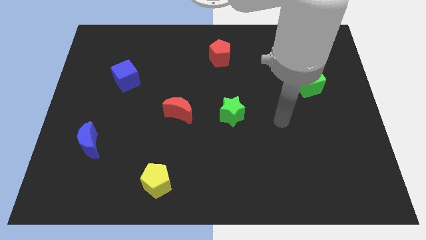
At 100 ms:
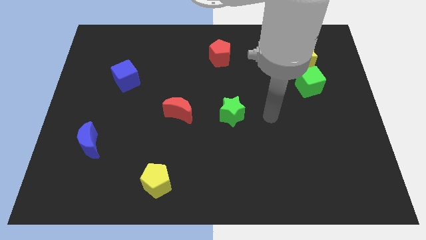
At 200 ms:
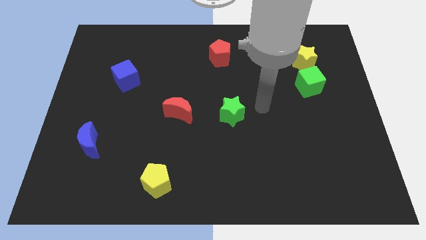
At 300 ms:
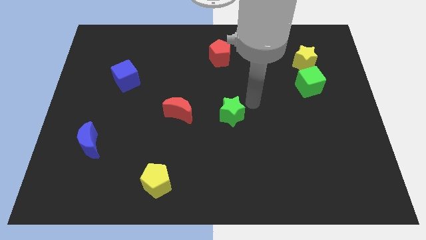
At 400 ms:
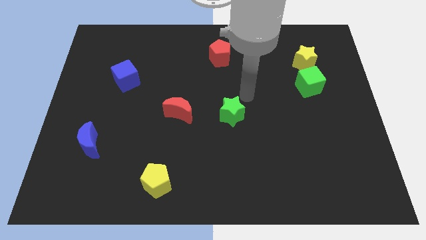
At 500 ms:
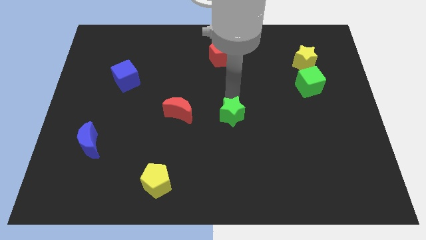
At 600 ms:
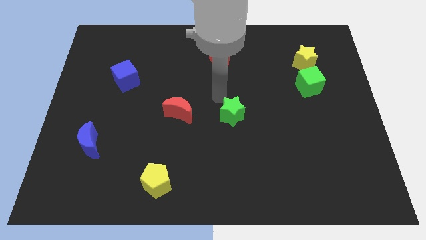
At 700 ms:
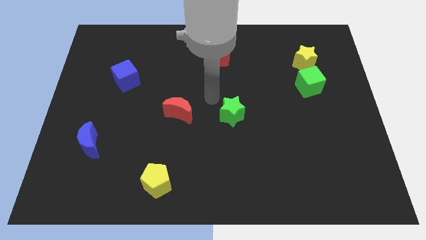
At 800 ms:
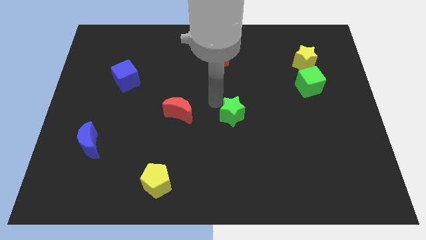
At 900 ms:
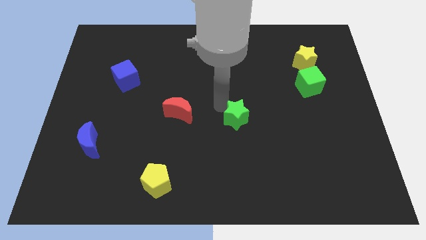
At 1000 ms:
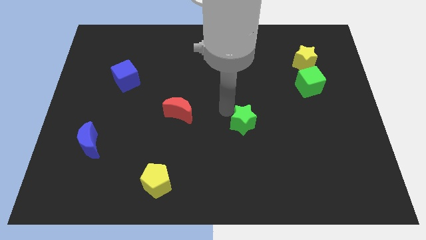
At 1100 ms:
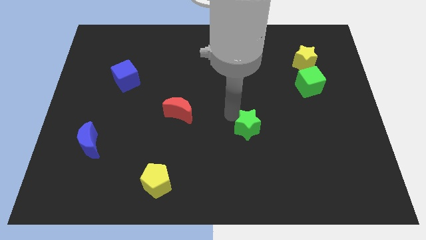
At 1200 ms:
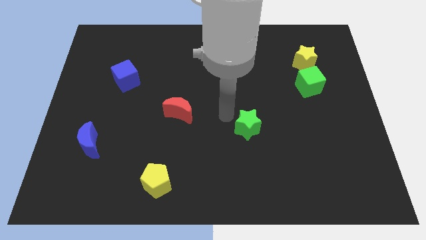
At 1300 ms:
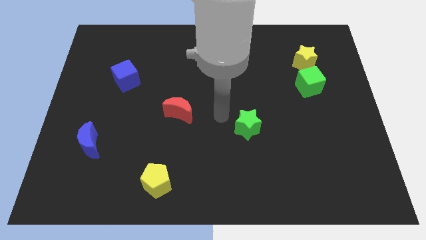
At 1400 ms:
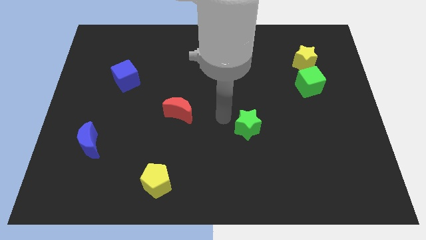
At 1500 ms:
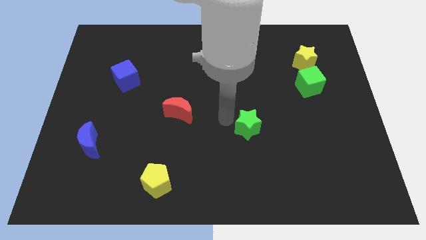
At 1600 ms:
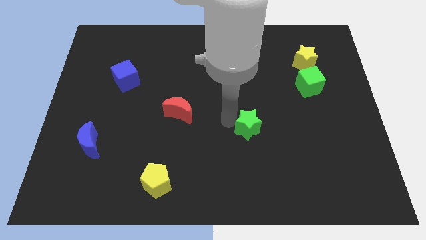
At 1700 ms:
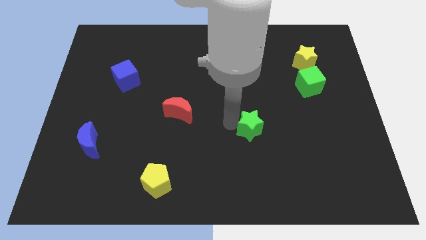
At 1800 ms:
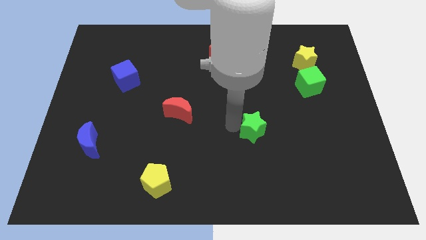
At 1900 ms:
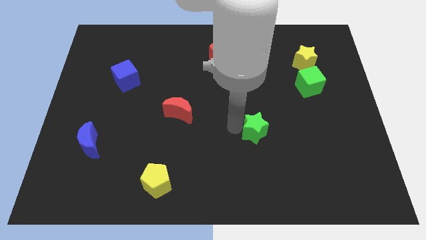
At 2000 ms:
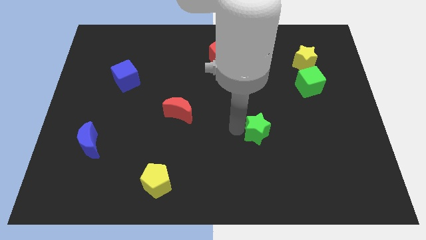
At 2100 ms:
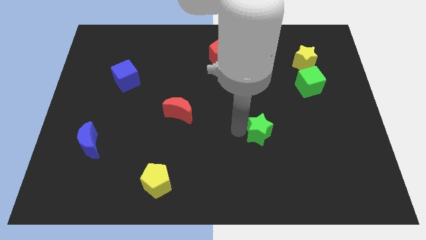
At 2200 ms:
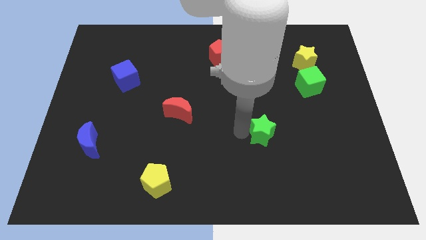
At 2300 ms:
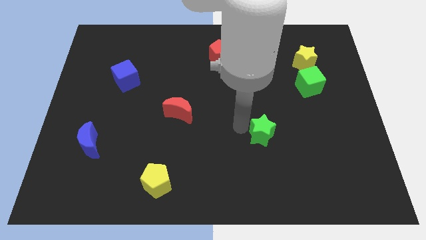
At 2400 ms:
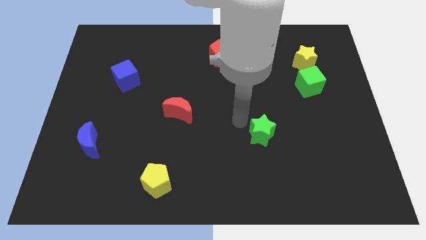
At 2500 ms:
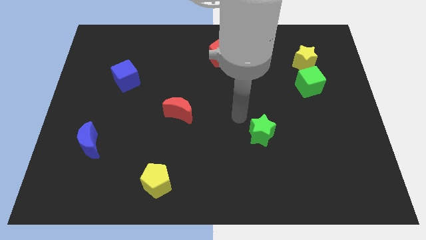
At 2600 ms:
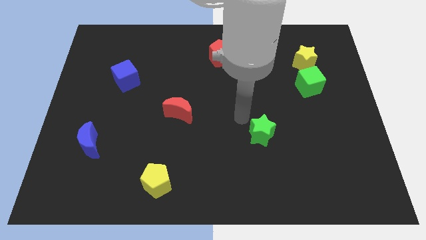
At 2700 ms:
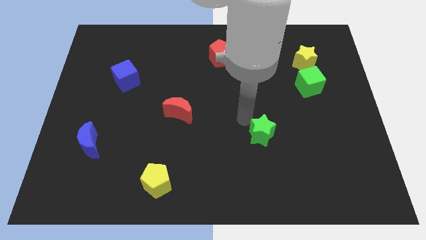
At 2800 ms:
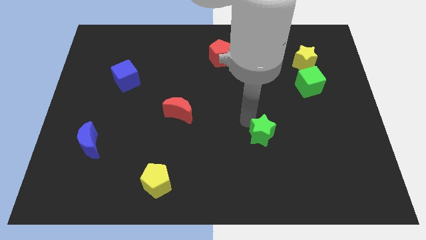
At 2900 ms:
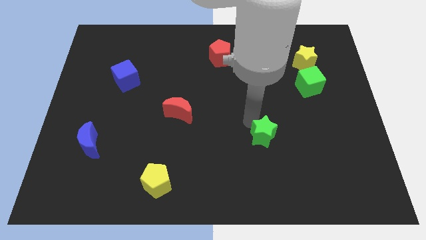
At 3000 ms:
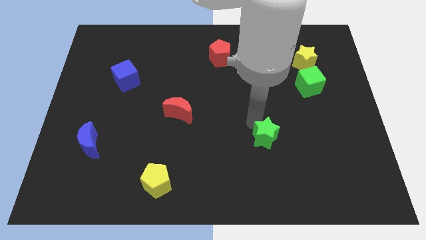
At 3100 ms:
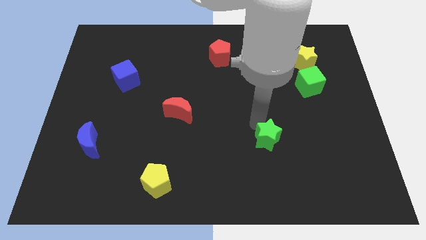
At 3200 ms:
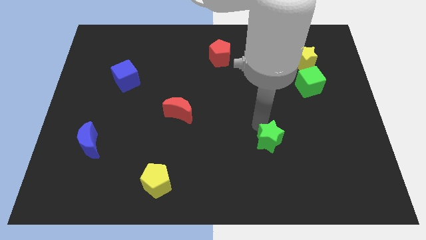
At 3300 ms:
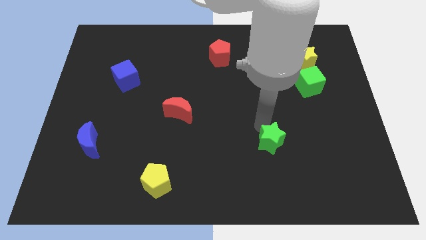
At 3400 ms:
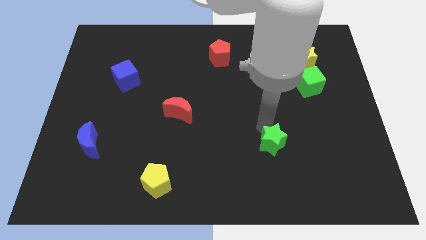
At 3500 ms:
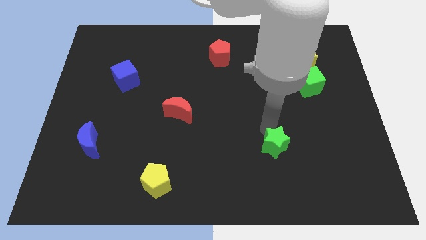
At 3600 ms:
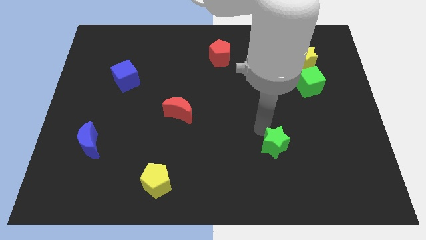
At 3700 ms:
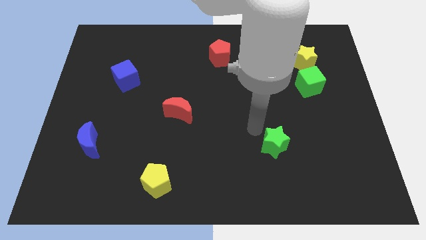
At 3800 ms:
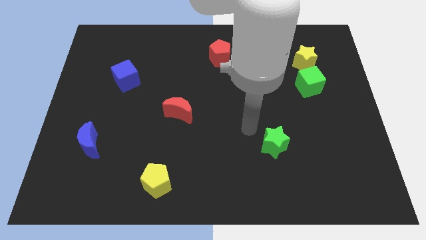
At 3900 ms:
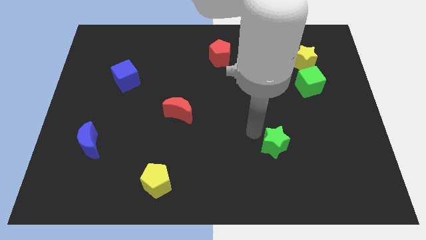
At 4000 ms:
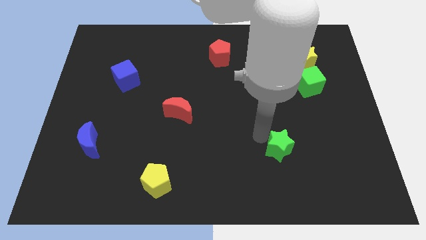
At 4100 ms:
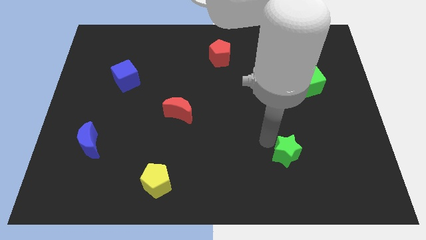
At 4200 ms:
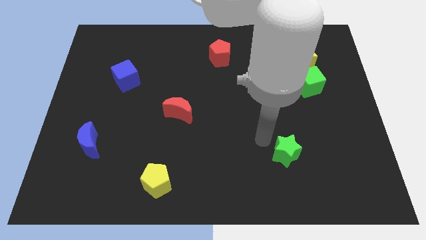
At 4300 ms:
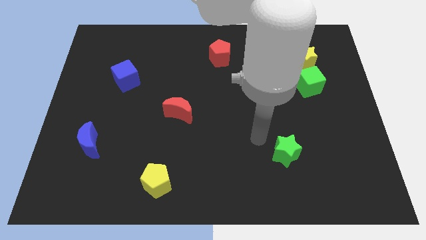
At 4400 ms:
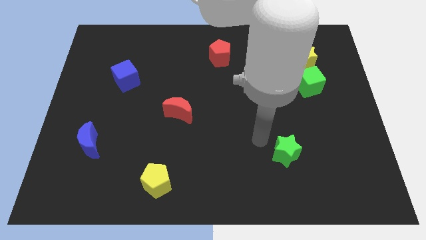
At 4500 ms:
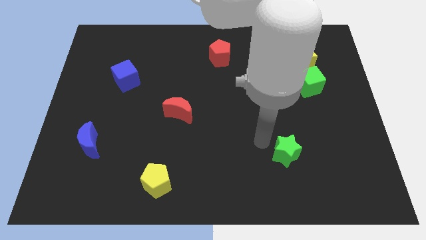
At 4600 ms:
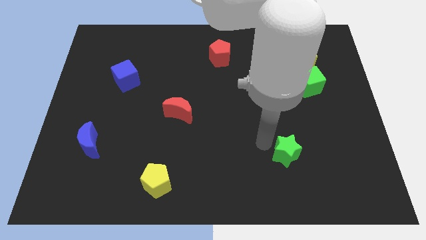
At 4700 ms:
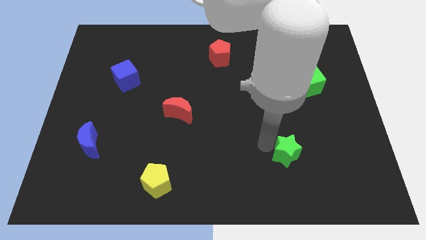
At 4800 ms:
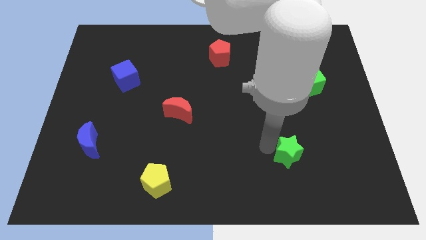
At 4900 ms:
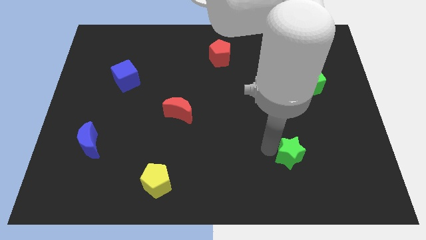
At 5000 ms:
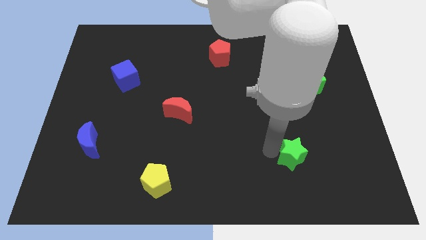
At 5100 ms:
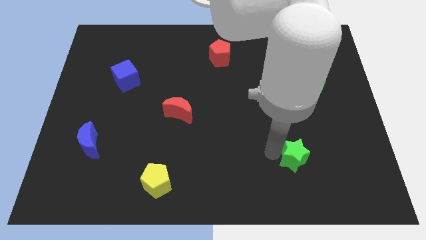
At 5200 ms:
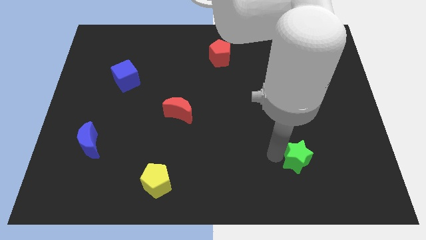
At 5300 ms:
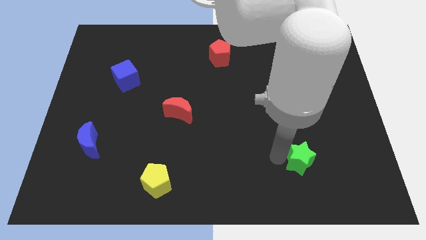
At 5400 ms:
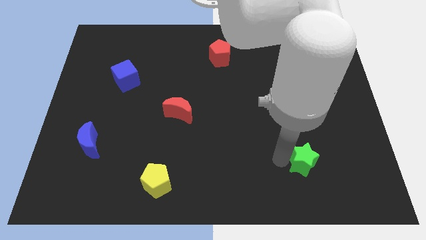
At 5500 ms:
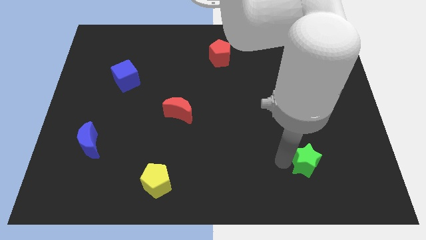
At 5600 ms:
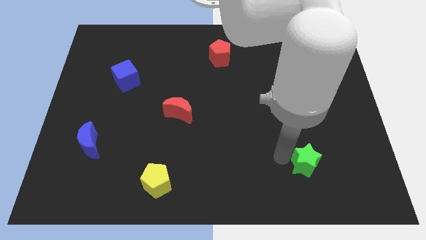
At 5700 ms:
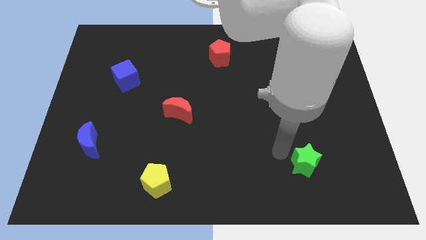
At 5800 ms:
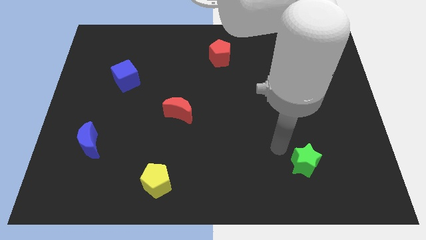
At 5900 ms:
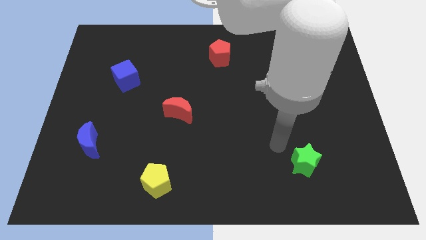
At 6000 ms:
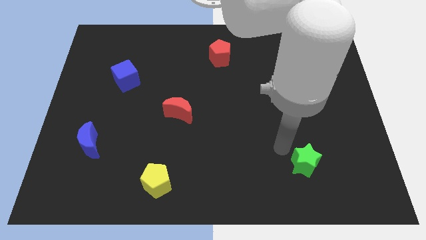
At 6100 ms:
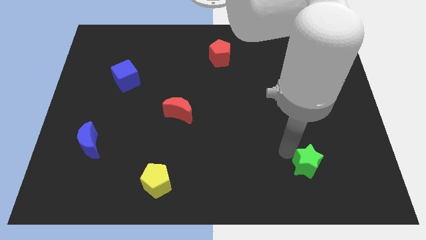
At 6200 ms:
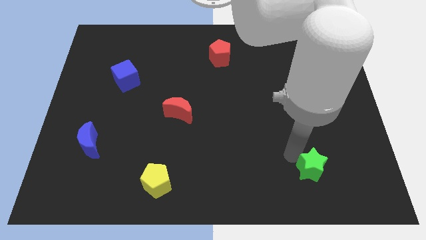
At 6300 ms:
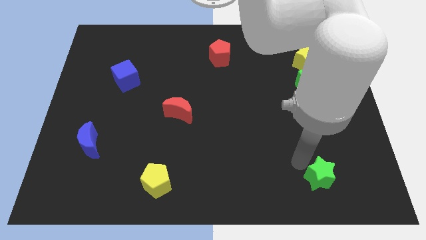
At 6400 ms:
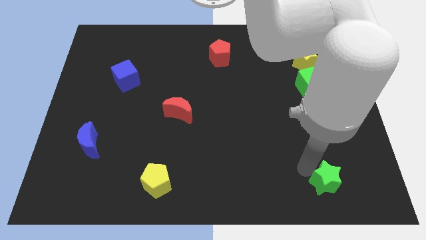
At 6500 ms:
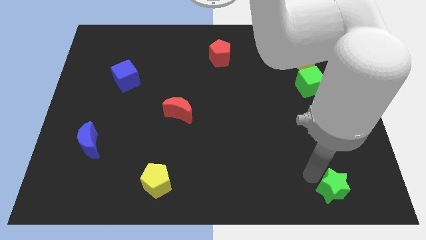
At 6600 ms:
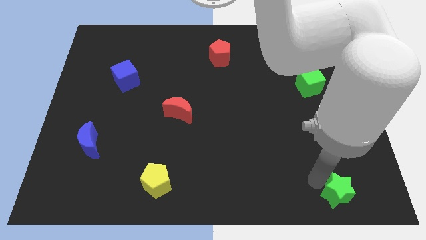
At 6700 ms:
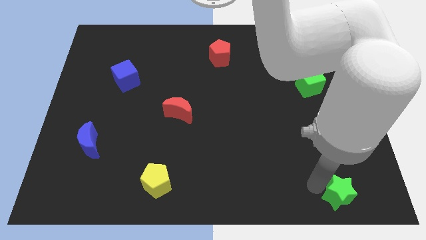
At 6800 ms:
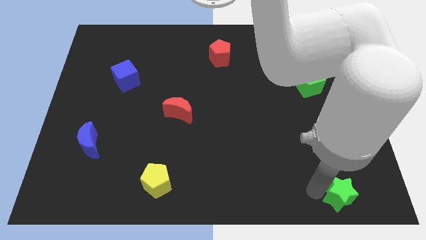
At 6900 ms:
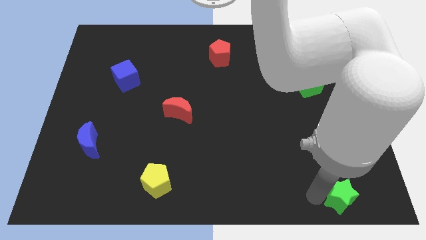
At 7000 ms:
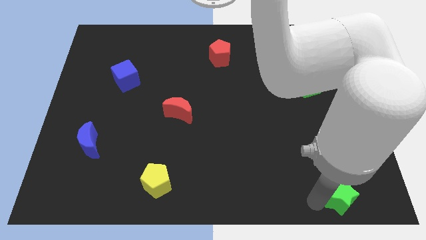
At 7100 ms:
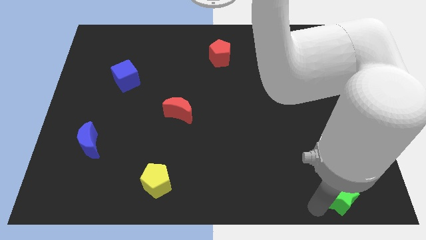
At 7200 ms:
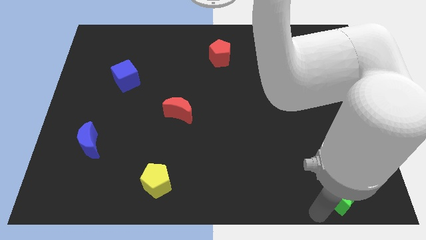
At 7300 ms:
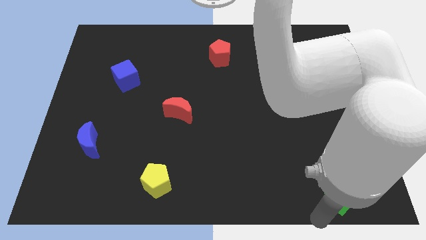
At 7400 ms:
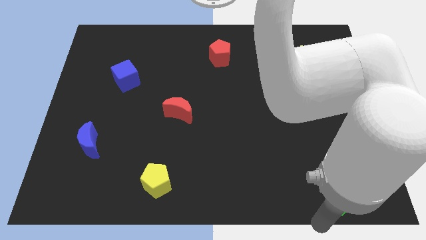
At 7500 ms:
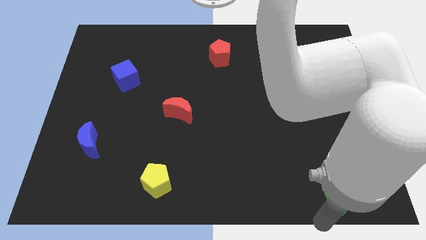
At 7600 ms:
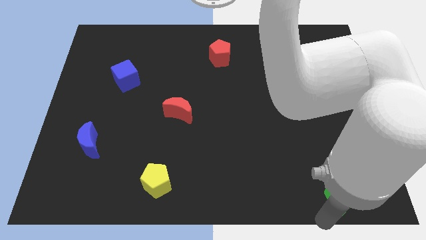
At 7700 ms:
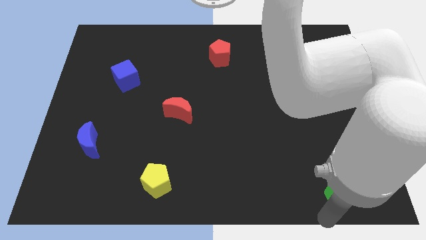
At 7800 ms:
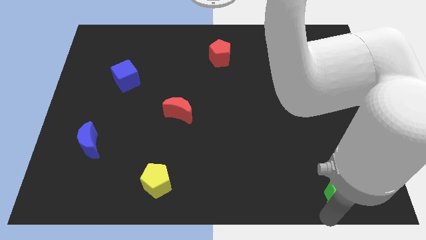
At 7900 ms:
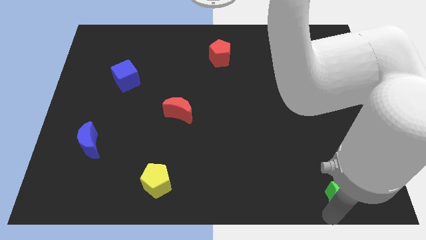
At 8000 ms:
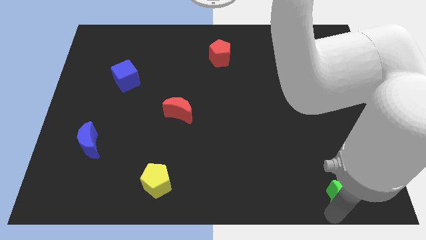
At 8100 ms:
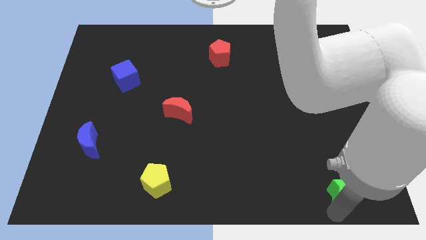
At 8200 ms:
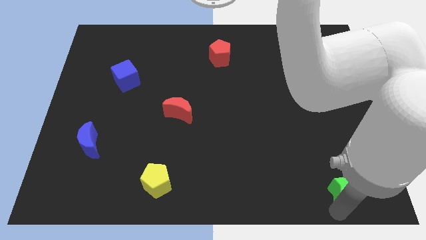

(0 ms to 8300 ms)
move the green star to the lower right corner
